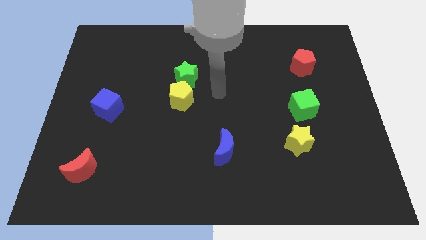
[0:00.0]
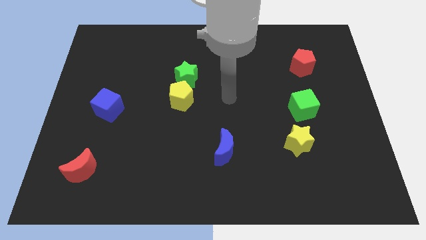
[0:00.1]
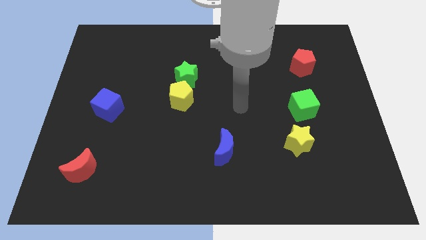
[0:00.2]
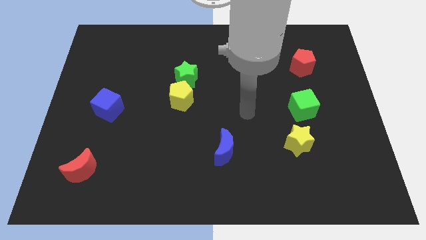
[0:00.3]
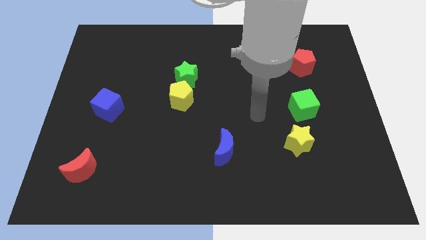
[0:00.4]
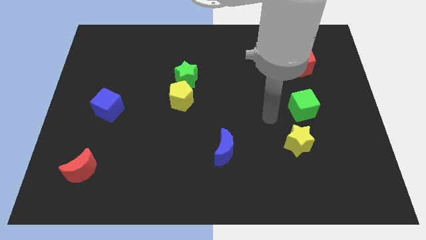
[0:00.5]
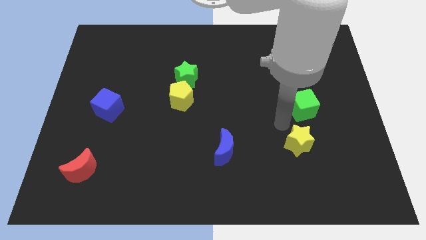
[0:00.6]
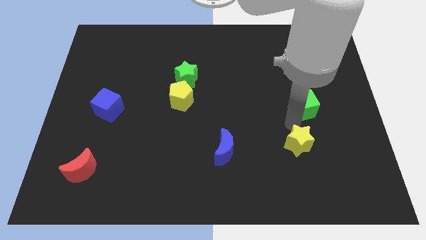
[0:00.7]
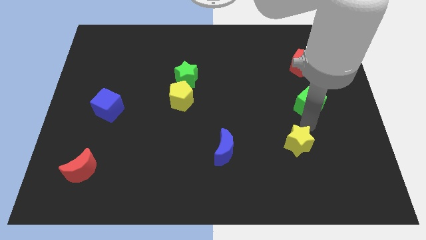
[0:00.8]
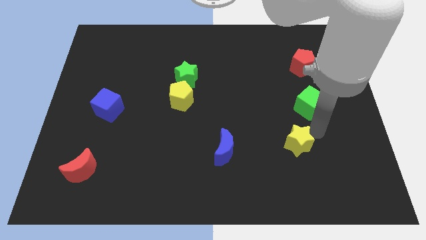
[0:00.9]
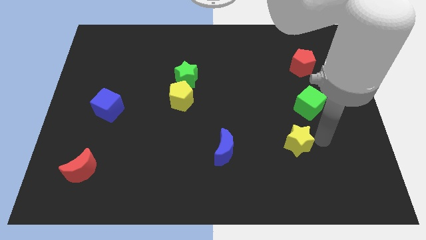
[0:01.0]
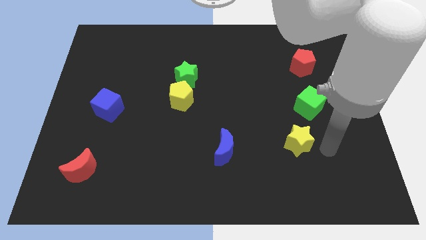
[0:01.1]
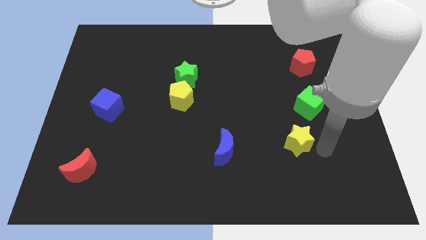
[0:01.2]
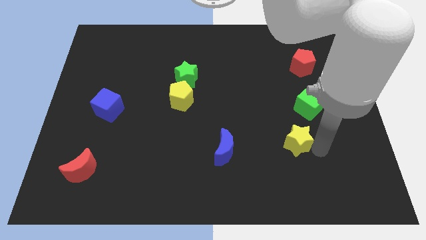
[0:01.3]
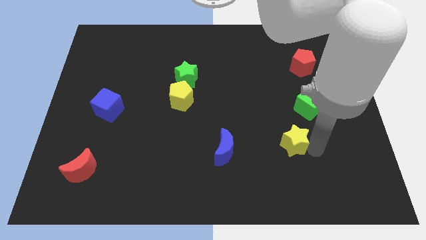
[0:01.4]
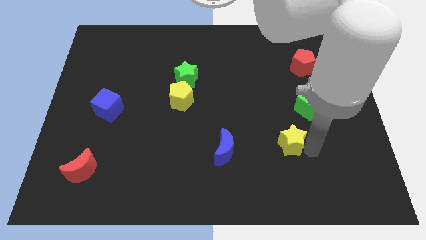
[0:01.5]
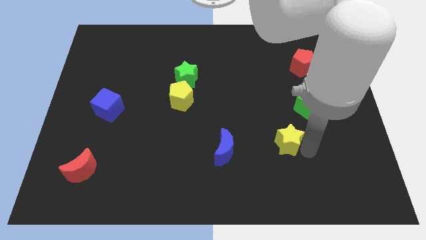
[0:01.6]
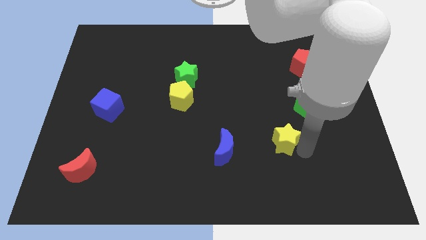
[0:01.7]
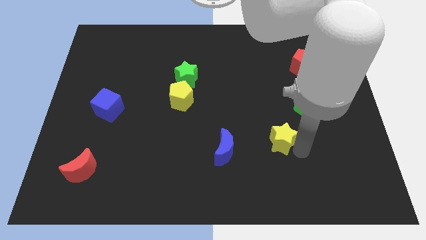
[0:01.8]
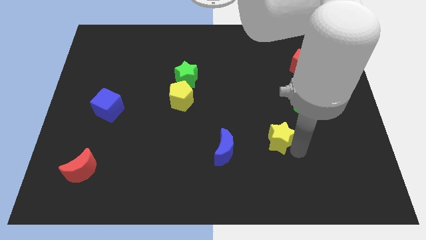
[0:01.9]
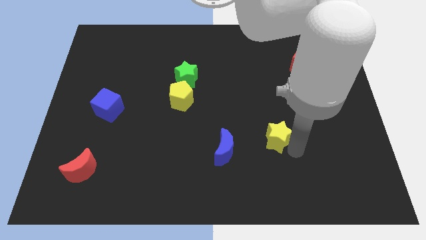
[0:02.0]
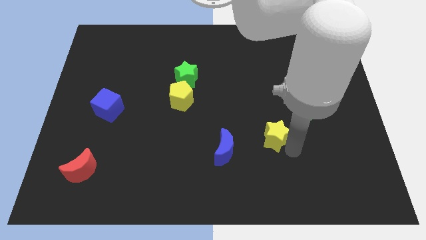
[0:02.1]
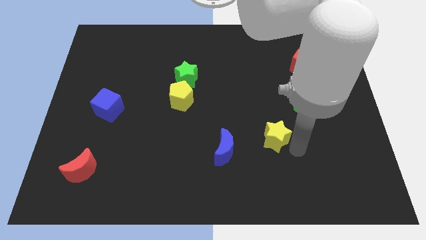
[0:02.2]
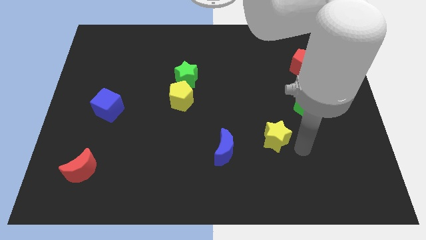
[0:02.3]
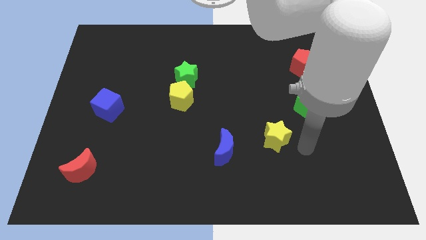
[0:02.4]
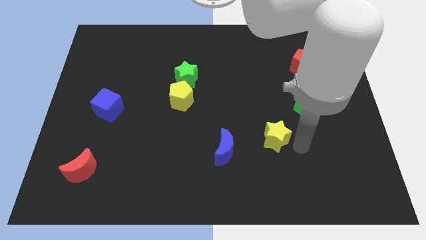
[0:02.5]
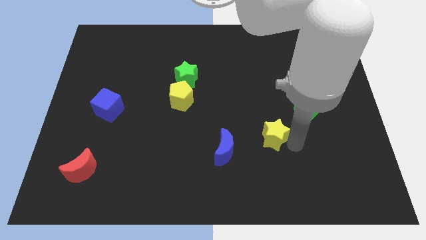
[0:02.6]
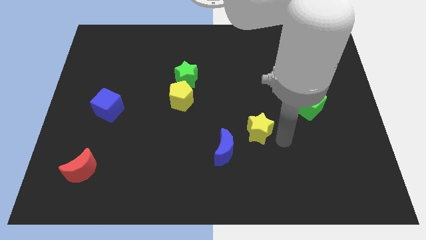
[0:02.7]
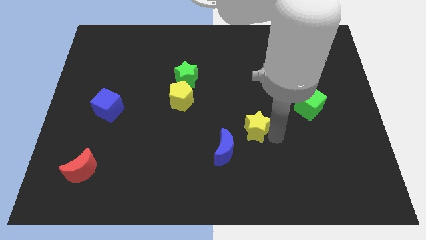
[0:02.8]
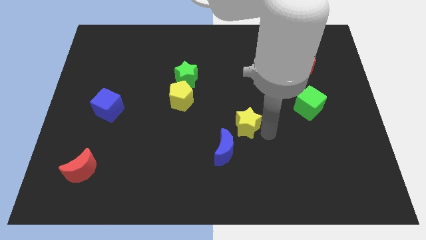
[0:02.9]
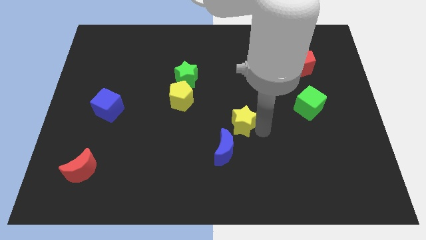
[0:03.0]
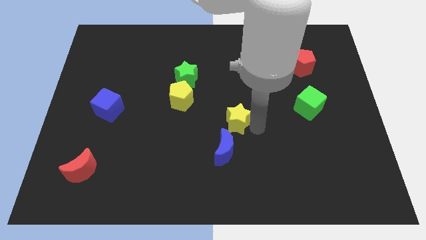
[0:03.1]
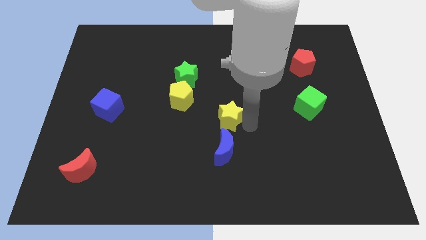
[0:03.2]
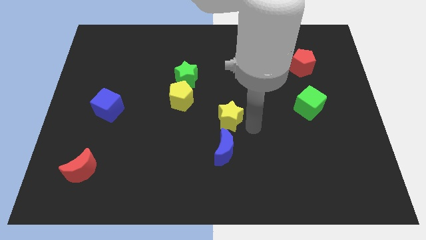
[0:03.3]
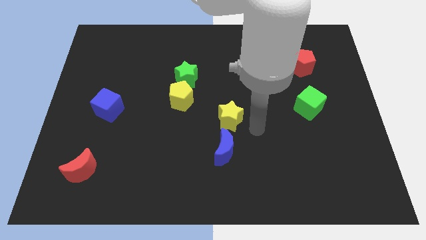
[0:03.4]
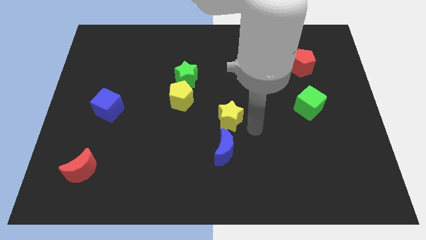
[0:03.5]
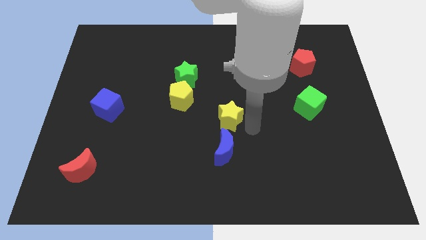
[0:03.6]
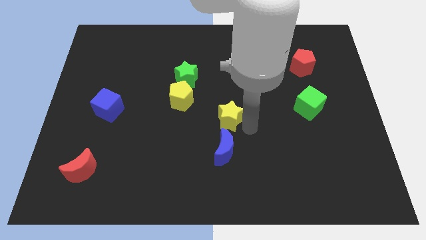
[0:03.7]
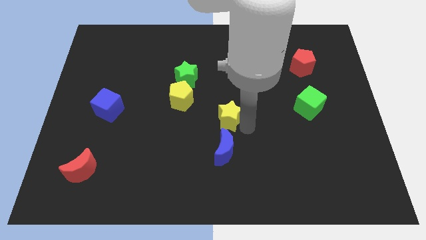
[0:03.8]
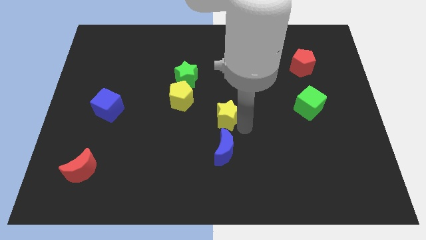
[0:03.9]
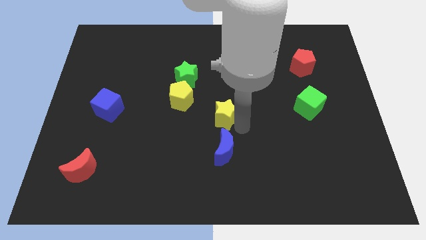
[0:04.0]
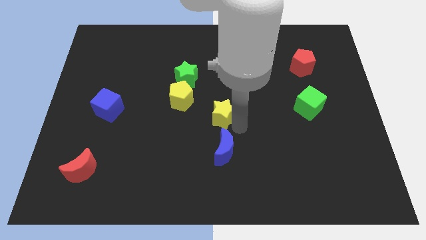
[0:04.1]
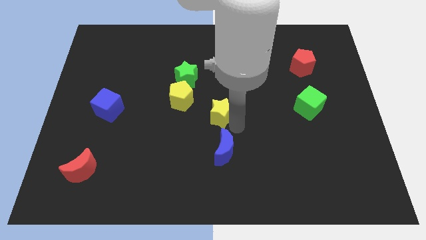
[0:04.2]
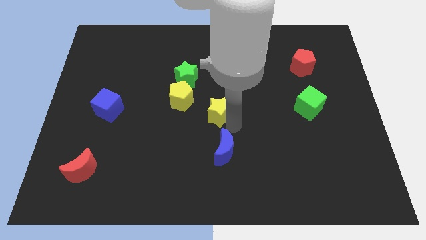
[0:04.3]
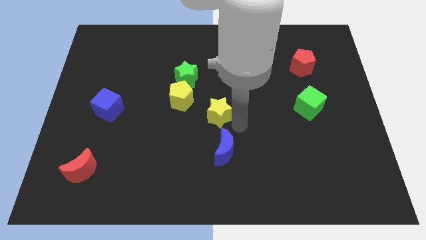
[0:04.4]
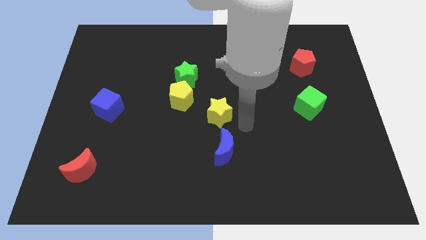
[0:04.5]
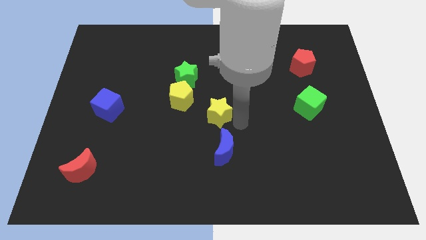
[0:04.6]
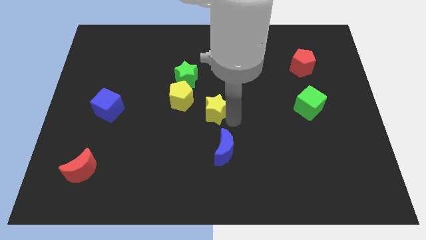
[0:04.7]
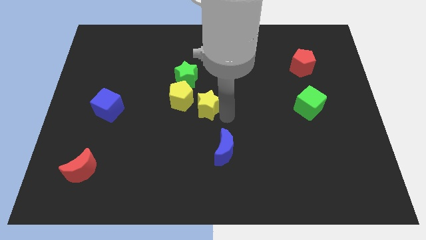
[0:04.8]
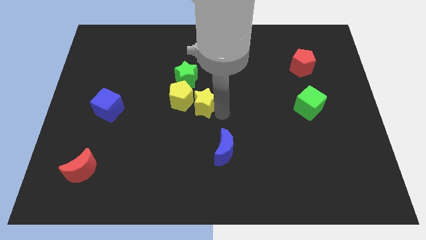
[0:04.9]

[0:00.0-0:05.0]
slide the yellow star close to the yellow pentagon

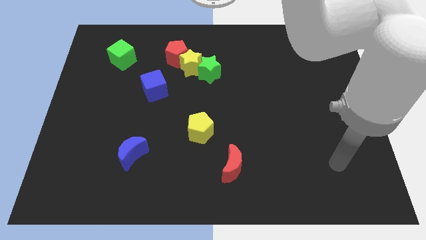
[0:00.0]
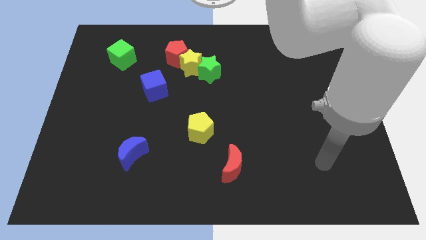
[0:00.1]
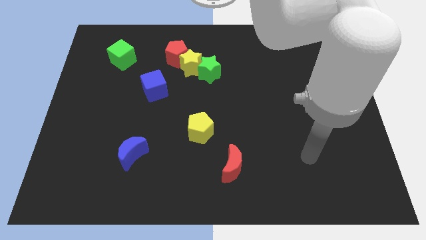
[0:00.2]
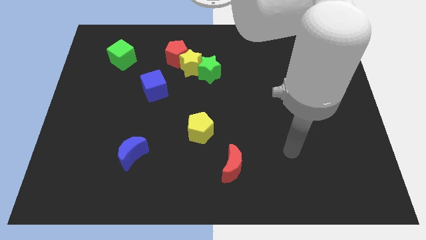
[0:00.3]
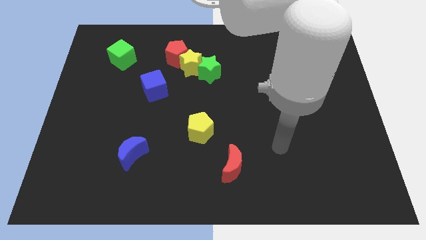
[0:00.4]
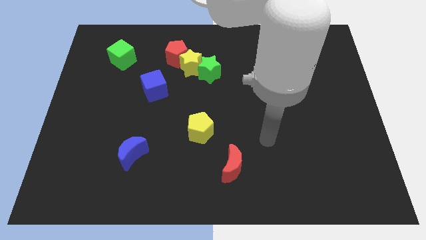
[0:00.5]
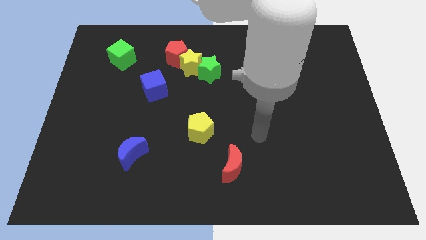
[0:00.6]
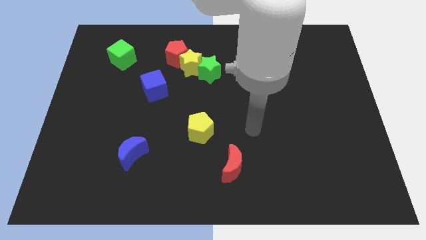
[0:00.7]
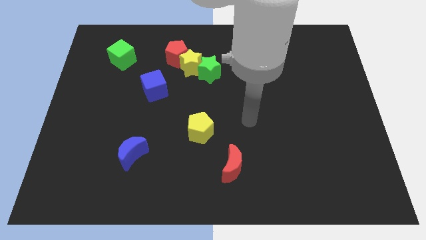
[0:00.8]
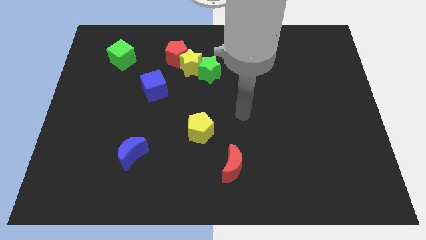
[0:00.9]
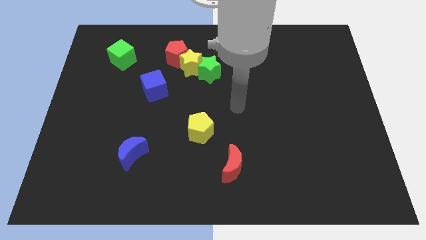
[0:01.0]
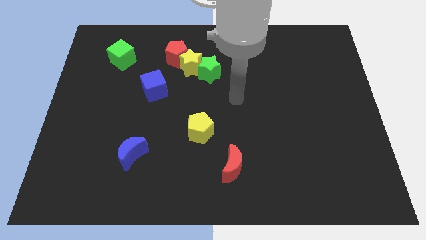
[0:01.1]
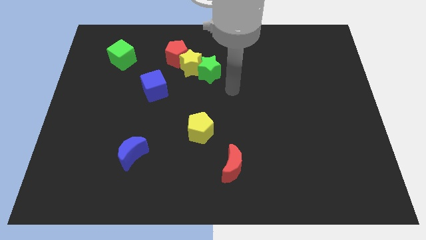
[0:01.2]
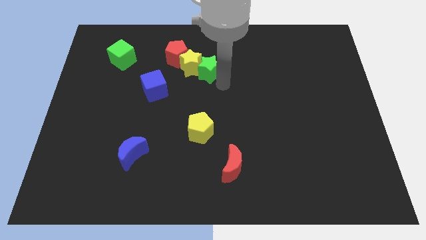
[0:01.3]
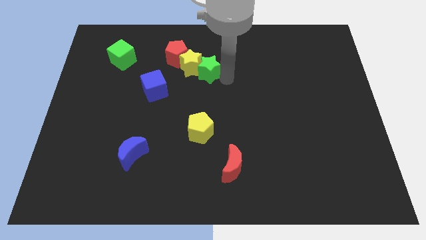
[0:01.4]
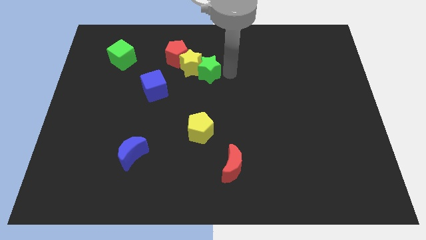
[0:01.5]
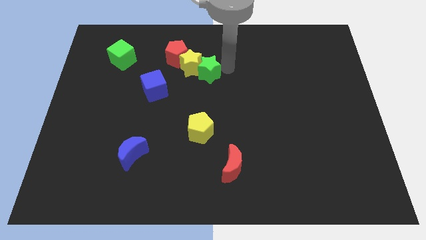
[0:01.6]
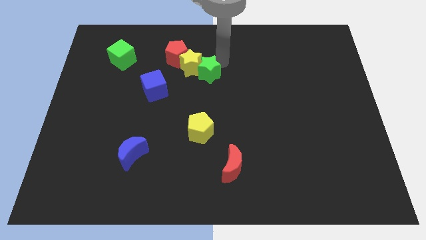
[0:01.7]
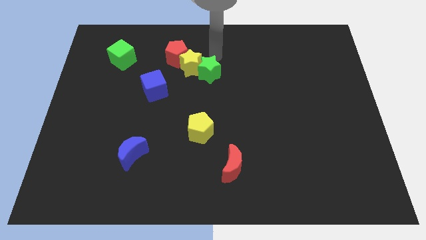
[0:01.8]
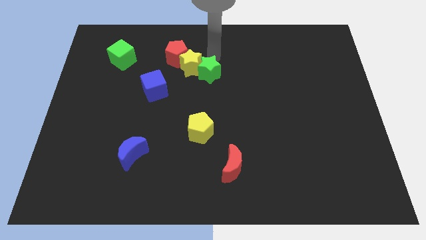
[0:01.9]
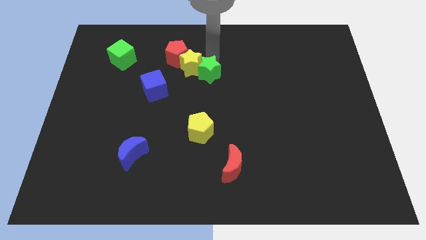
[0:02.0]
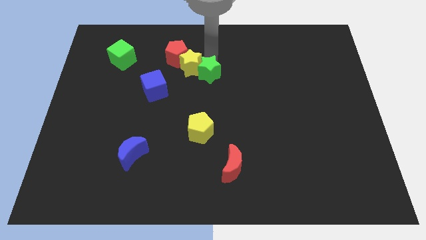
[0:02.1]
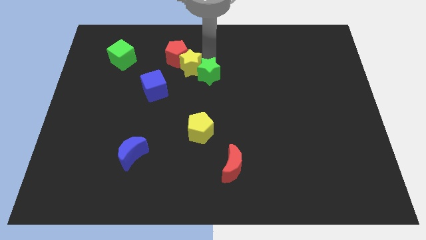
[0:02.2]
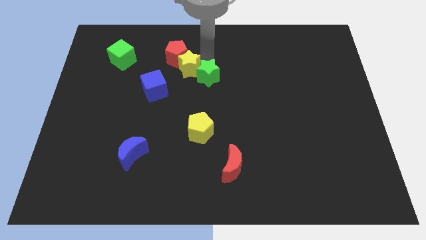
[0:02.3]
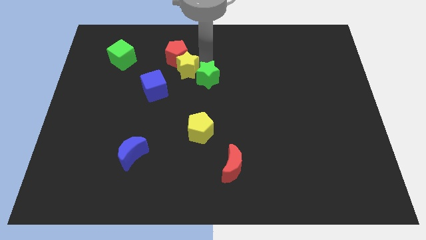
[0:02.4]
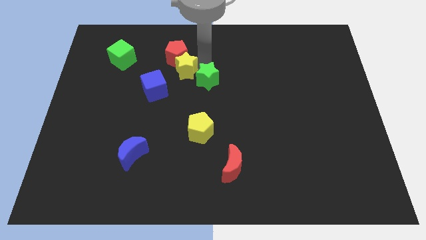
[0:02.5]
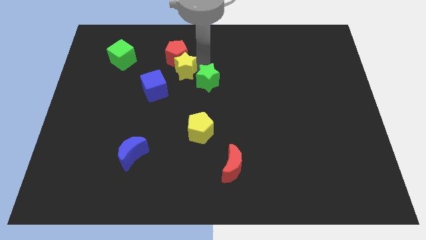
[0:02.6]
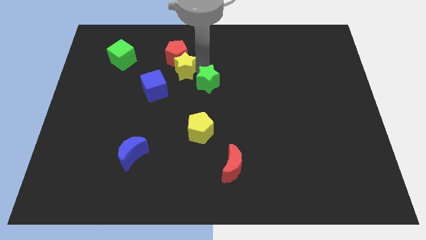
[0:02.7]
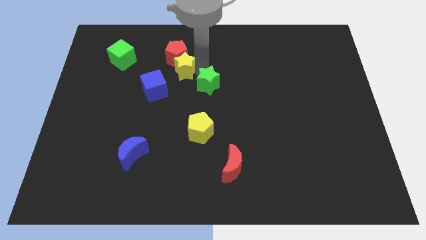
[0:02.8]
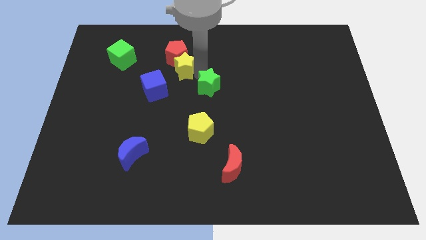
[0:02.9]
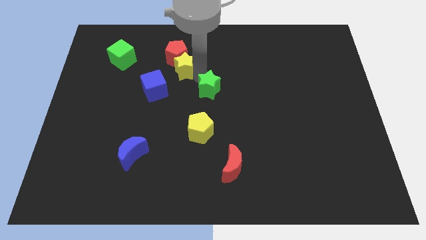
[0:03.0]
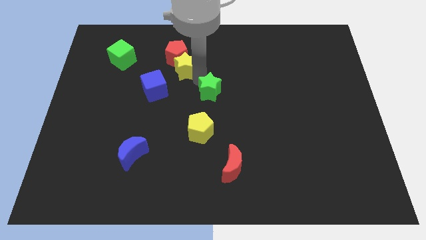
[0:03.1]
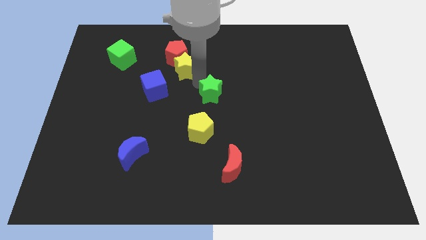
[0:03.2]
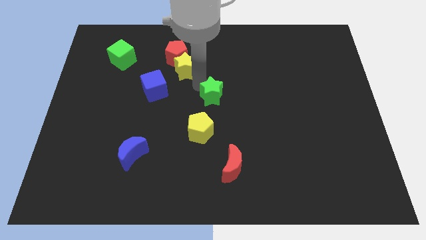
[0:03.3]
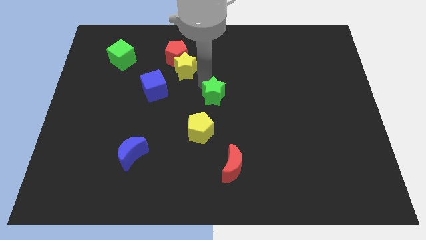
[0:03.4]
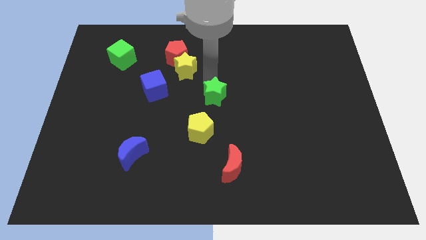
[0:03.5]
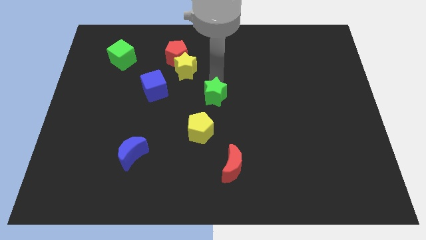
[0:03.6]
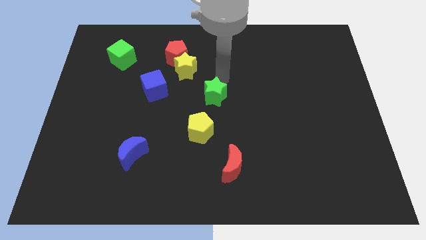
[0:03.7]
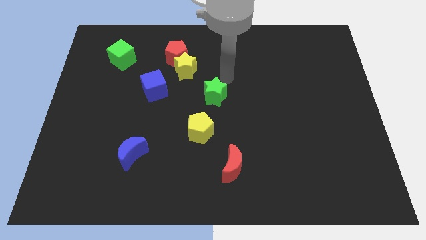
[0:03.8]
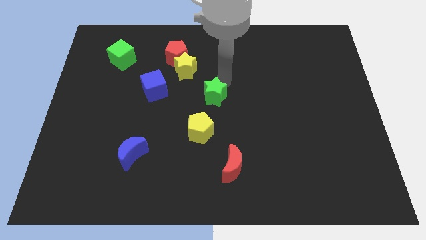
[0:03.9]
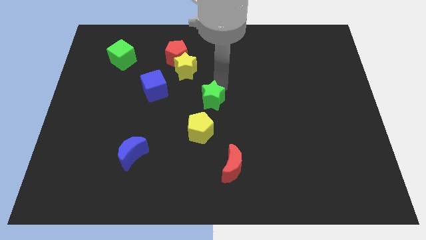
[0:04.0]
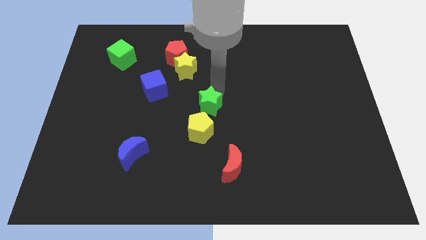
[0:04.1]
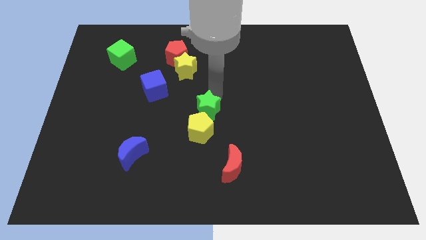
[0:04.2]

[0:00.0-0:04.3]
move the green star towards the yellow pentagon
